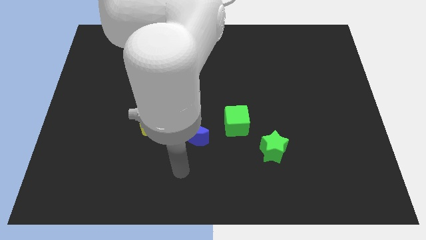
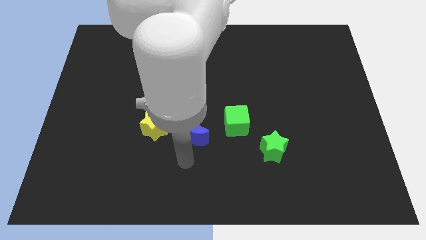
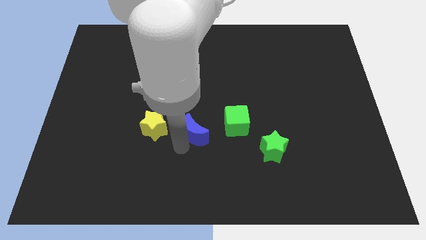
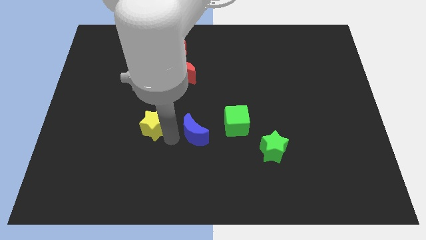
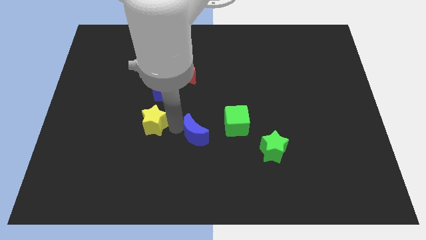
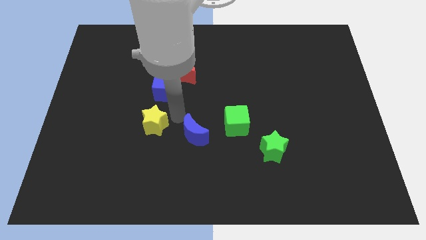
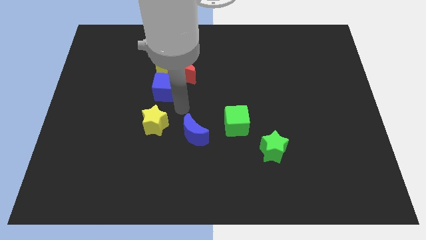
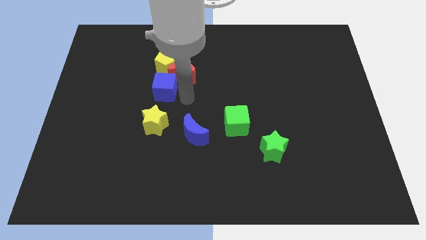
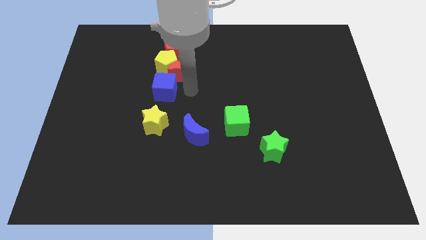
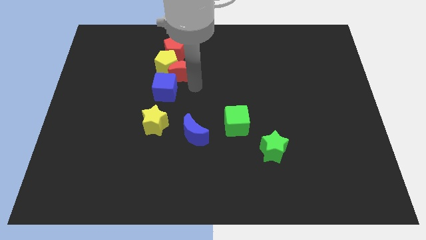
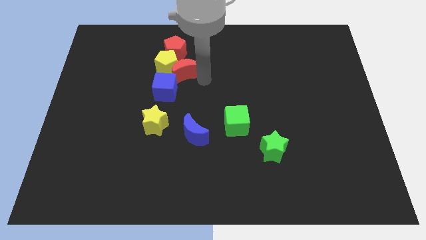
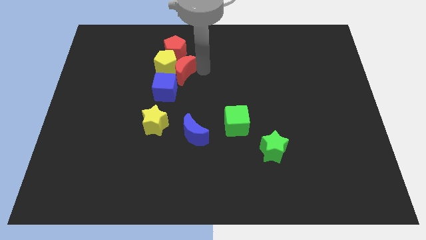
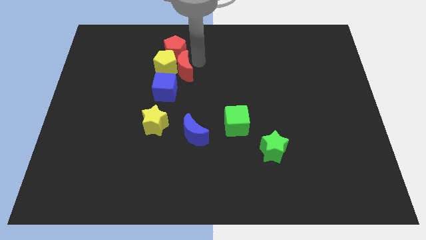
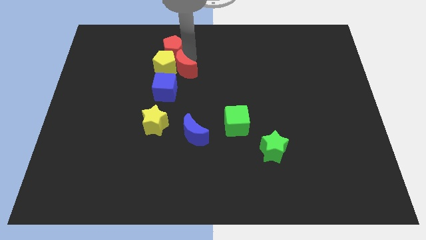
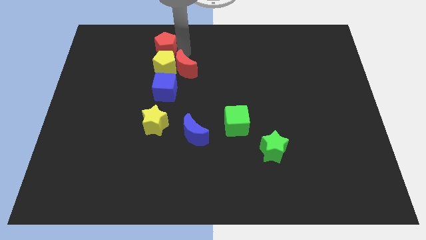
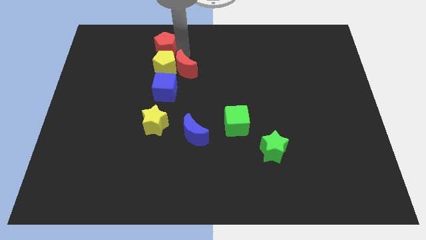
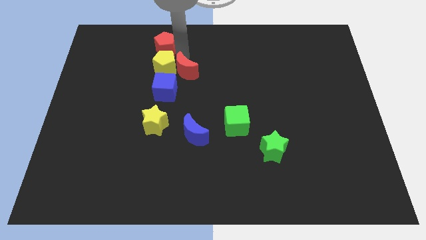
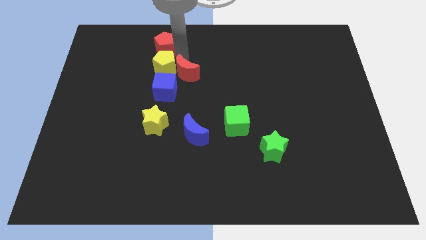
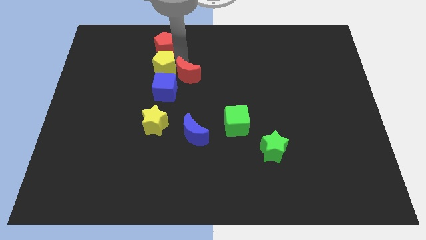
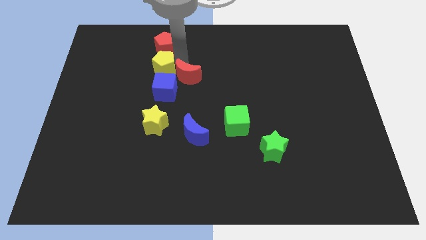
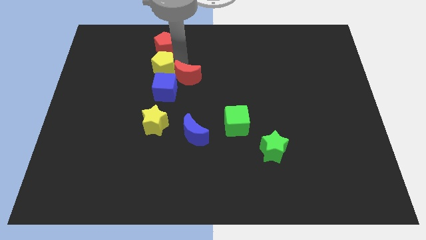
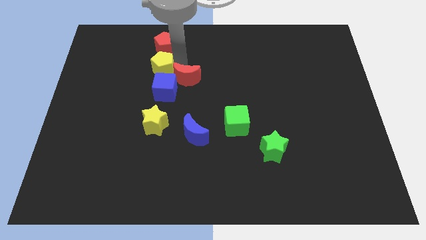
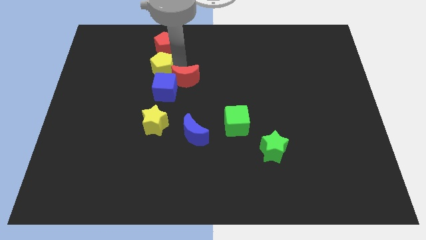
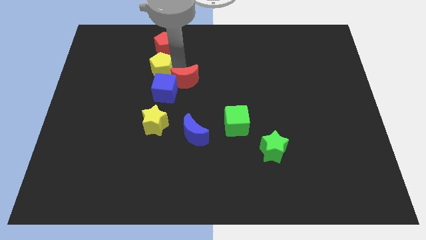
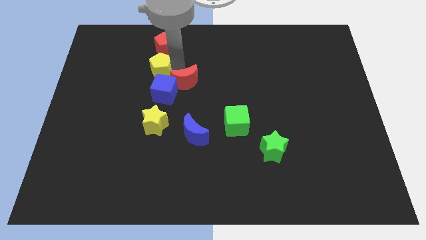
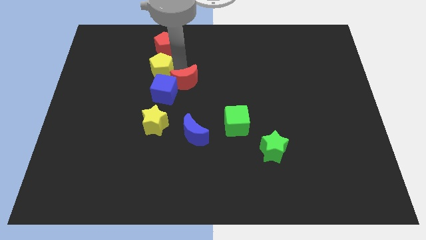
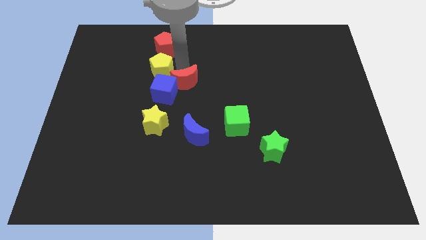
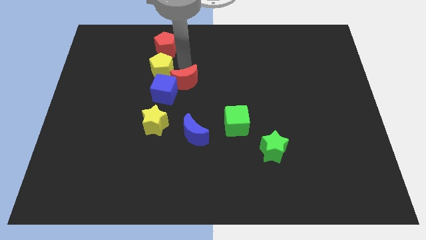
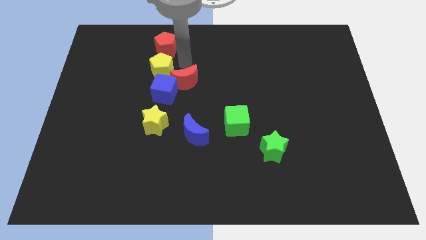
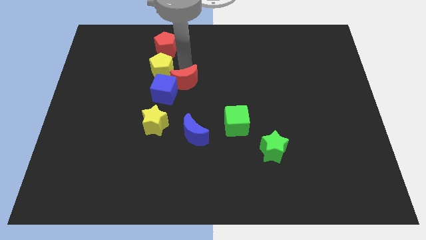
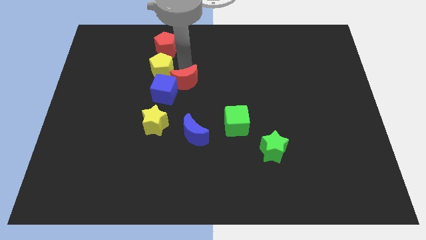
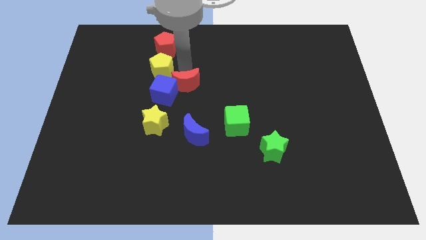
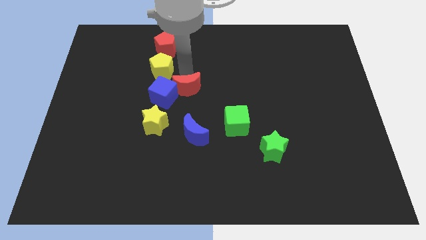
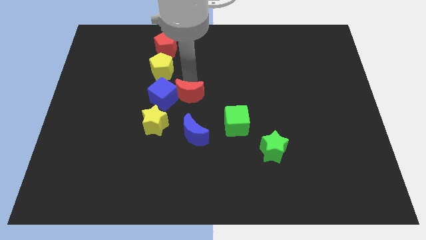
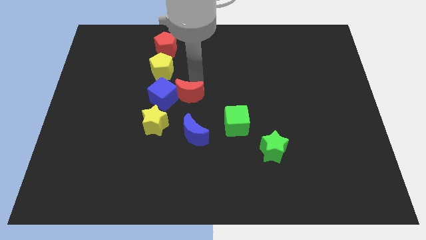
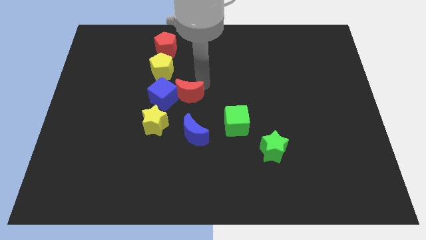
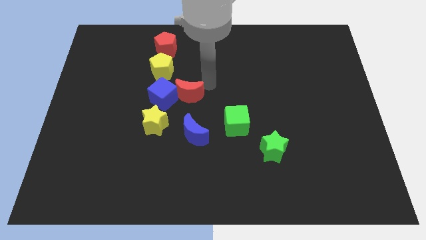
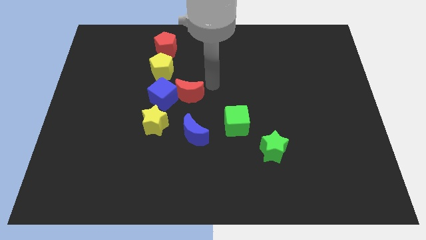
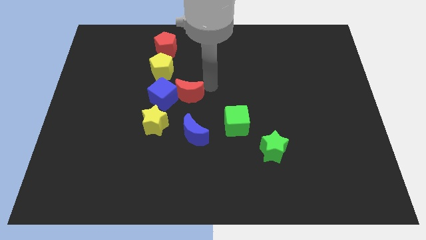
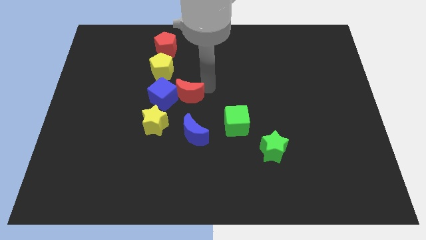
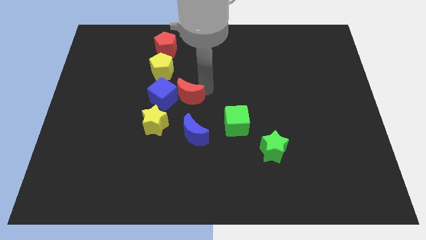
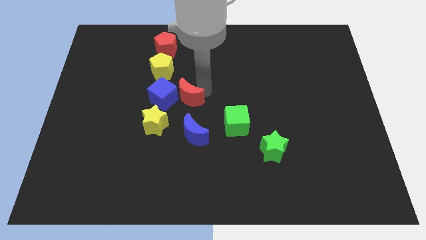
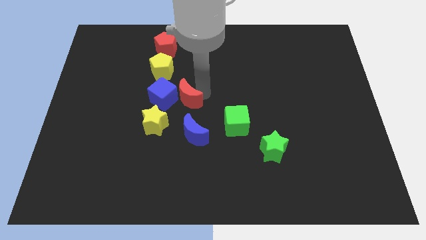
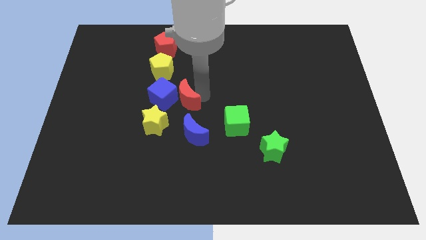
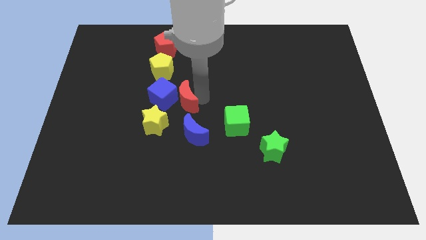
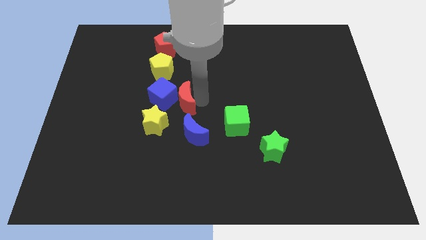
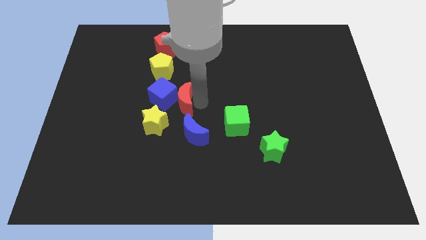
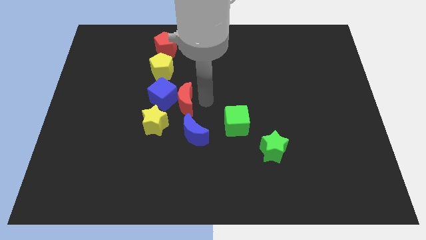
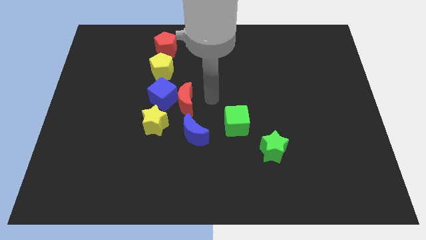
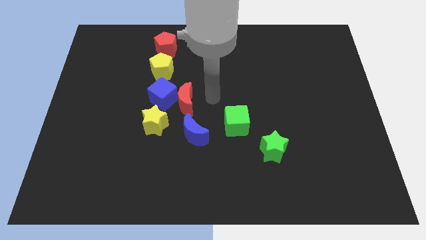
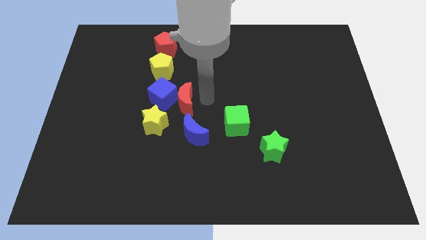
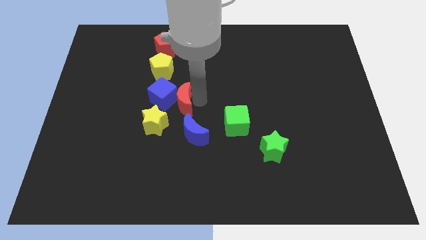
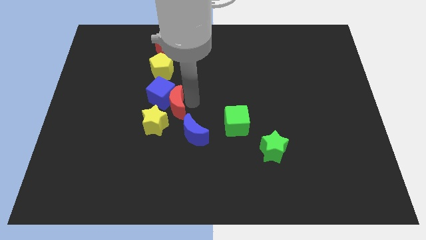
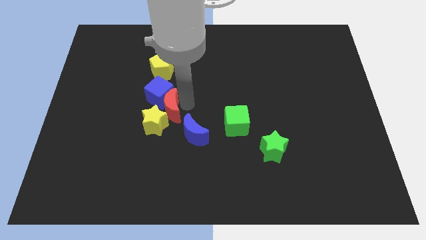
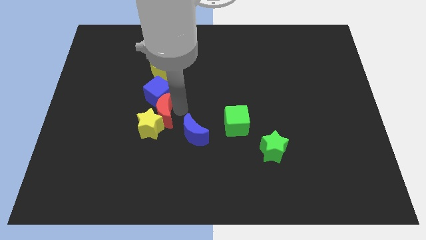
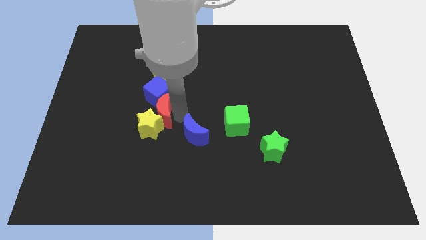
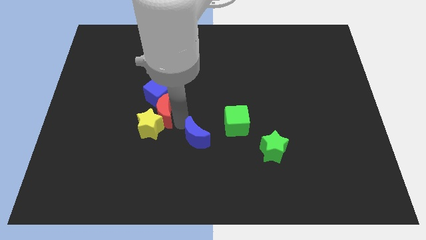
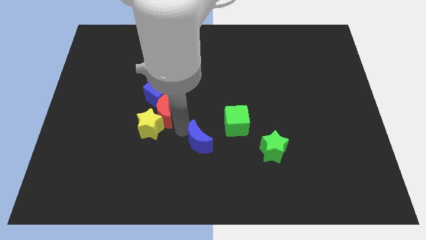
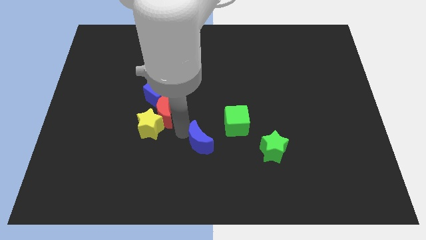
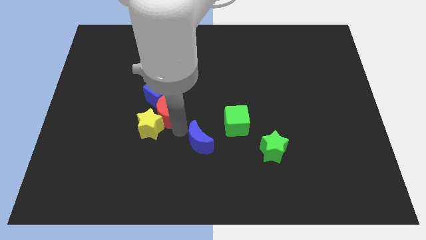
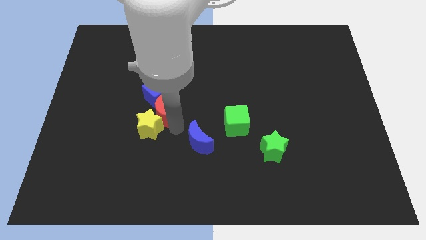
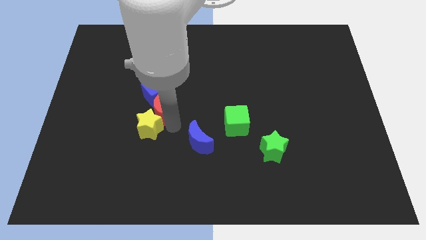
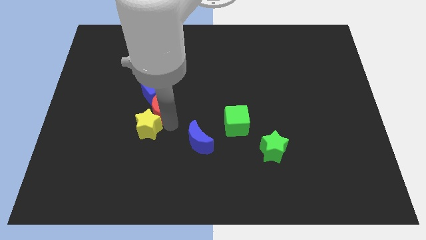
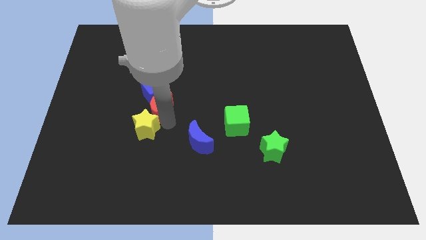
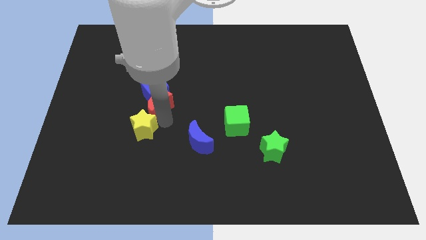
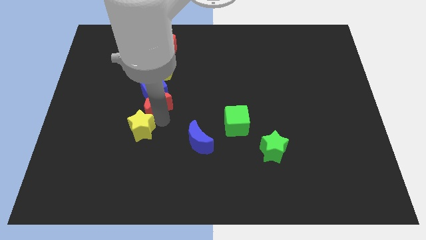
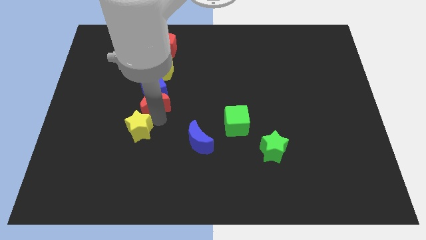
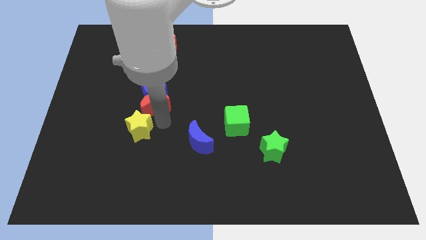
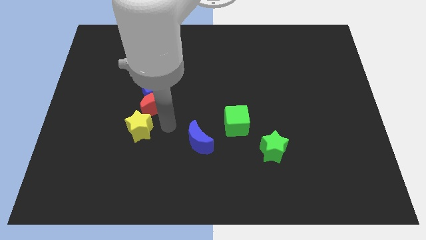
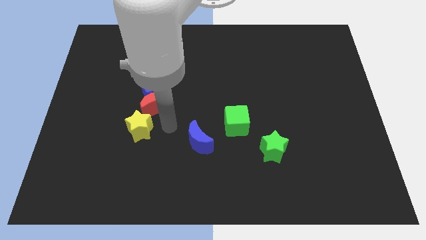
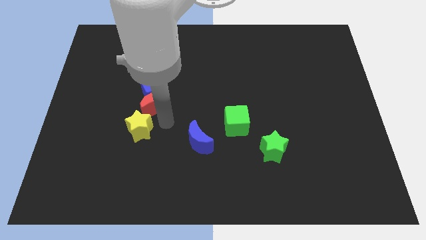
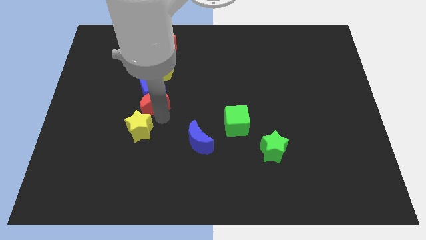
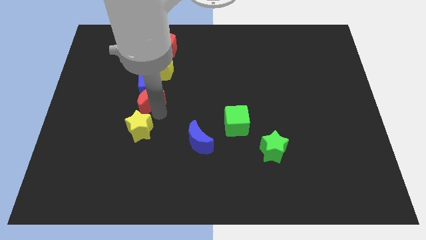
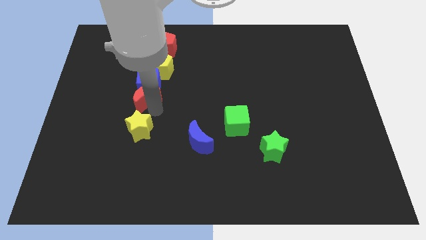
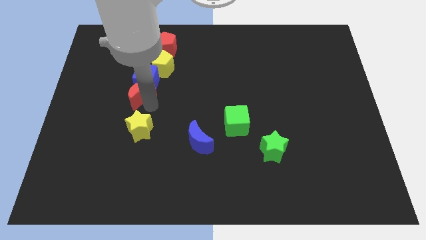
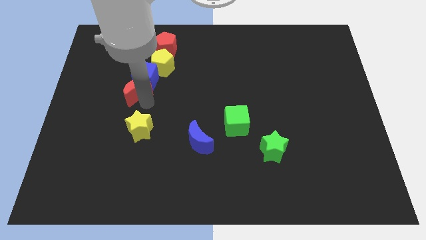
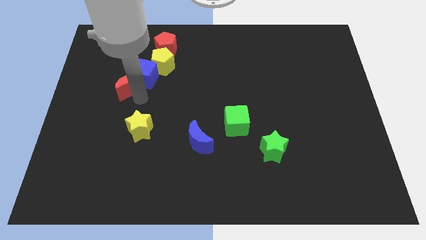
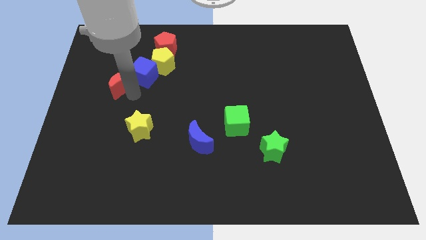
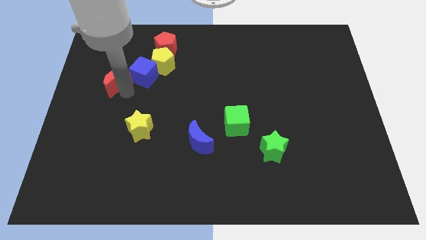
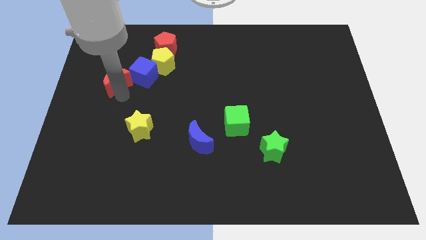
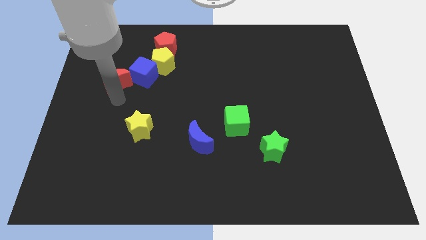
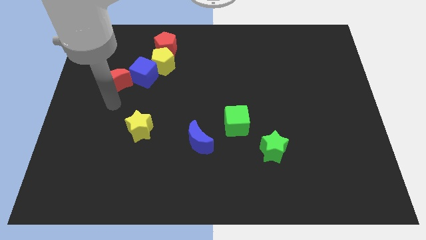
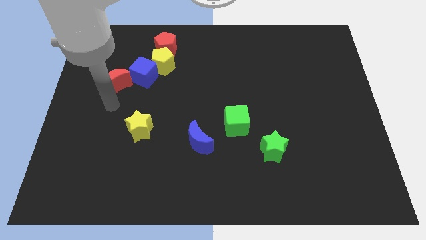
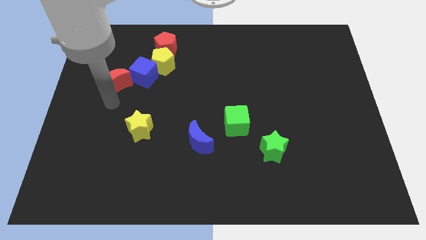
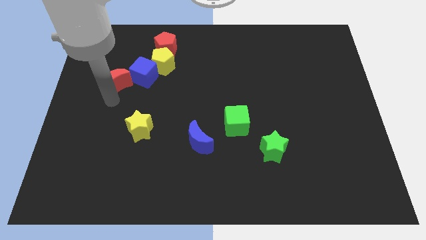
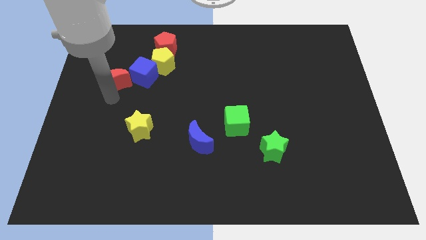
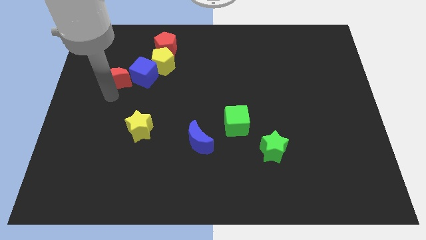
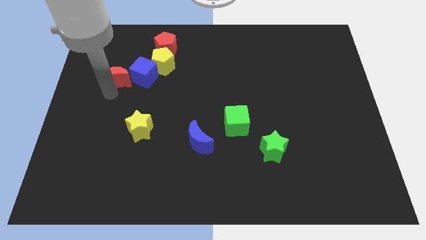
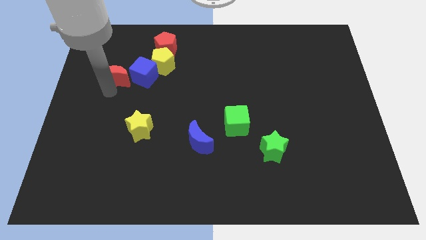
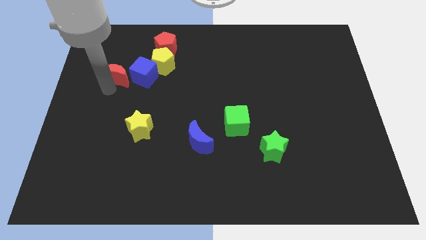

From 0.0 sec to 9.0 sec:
put the red moon just left of the yellow pentagon
